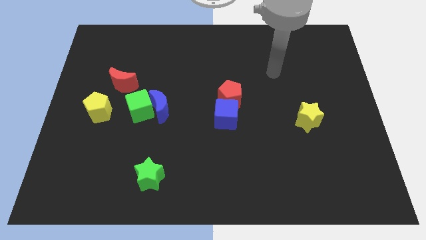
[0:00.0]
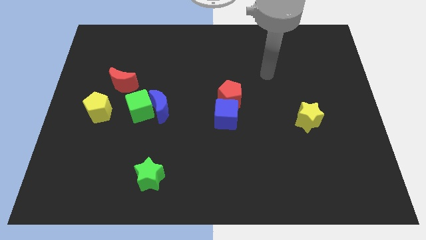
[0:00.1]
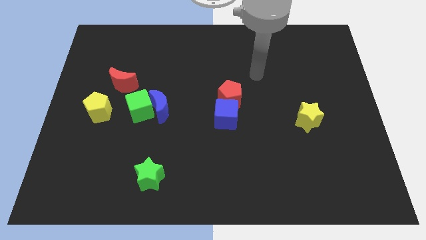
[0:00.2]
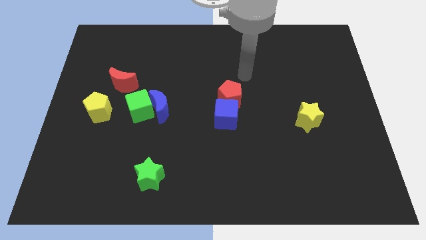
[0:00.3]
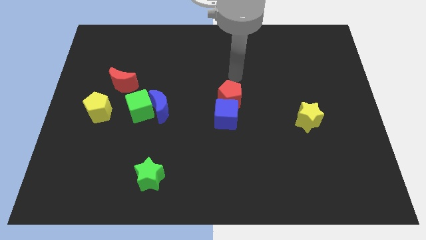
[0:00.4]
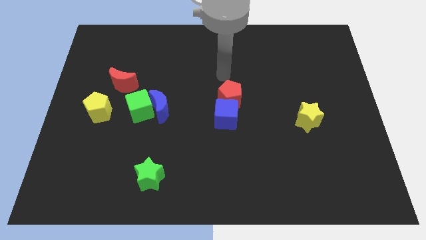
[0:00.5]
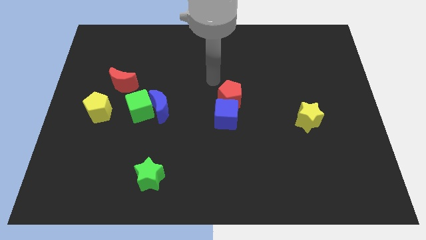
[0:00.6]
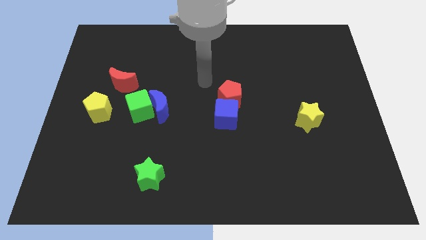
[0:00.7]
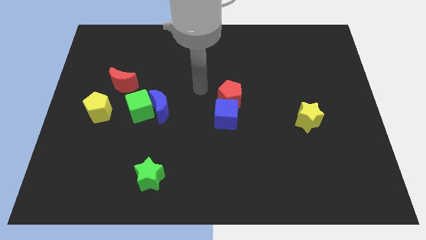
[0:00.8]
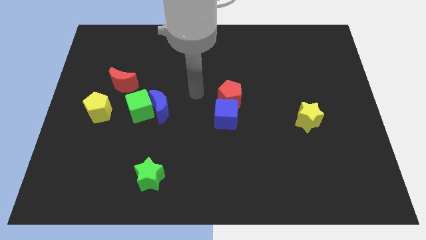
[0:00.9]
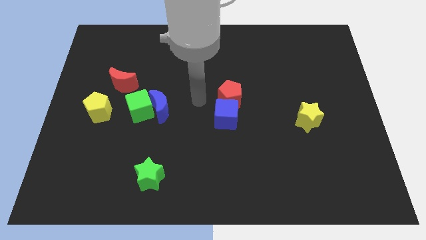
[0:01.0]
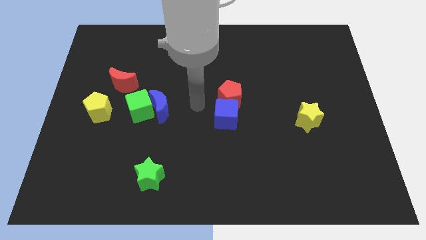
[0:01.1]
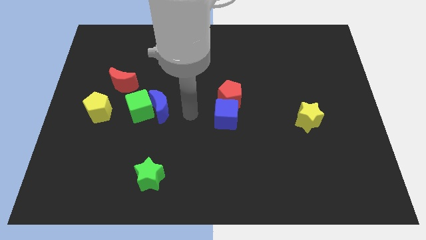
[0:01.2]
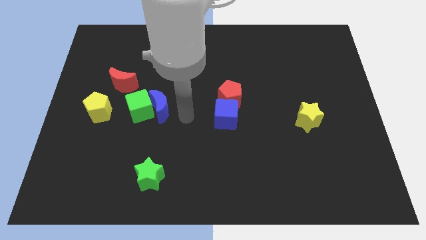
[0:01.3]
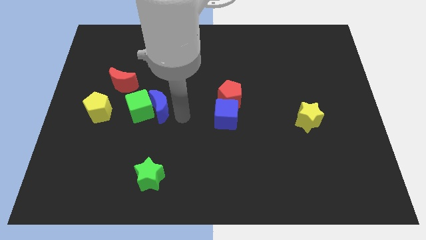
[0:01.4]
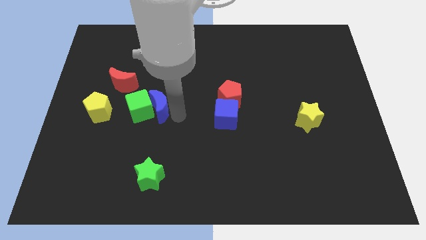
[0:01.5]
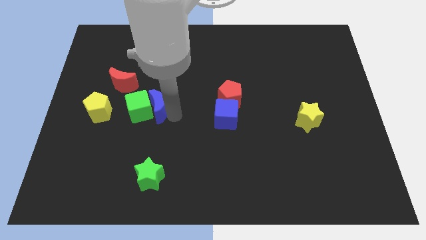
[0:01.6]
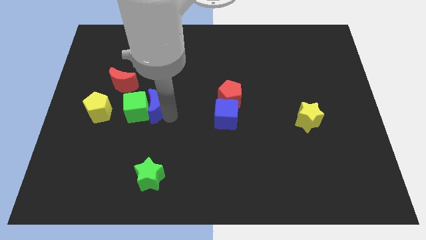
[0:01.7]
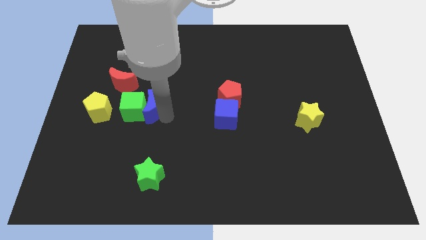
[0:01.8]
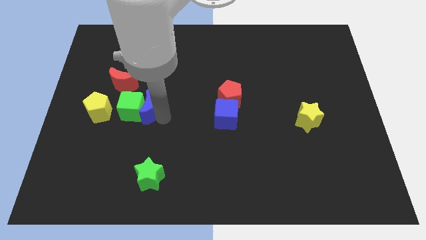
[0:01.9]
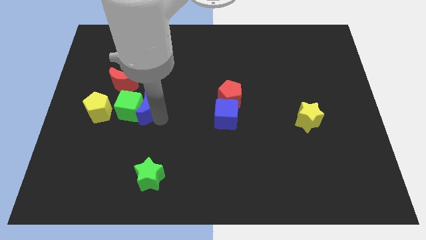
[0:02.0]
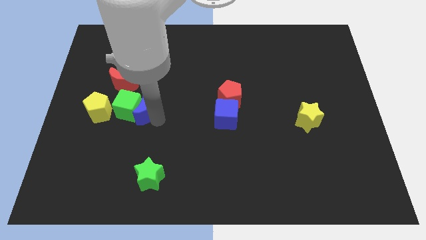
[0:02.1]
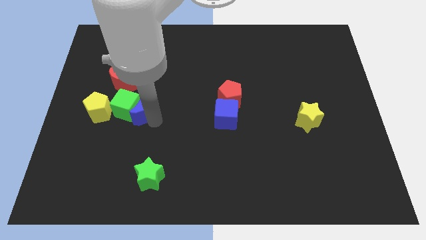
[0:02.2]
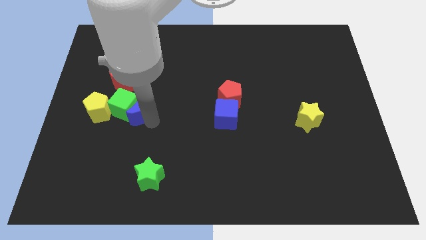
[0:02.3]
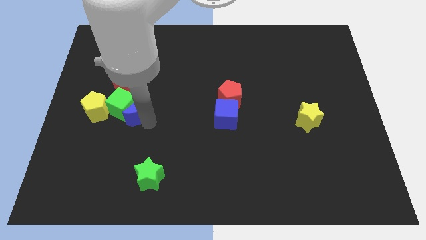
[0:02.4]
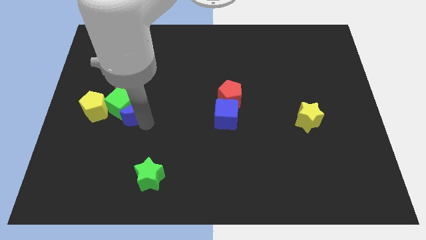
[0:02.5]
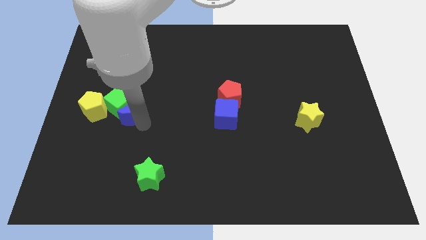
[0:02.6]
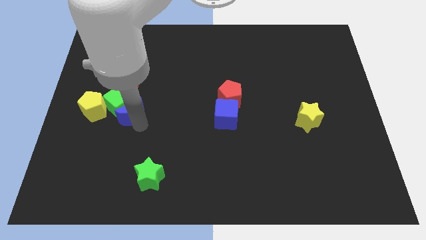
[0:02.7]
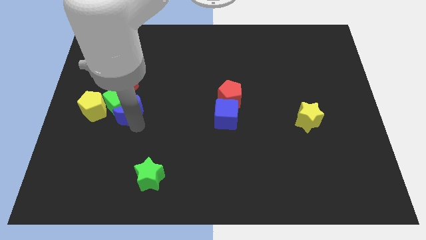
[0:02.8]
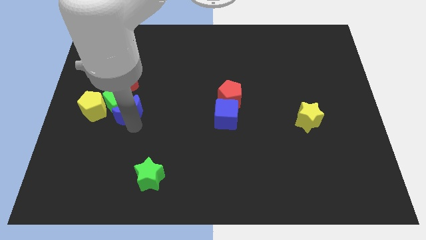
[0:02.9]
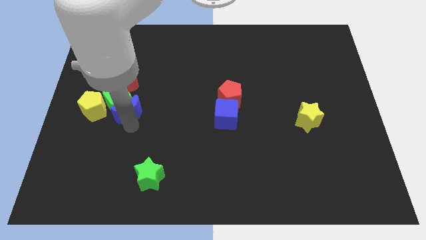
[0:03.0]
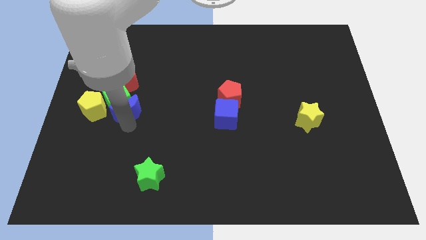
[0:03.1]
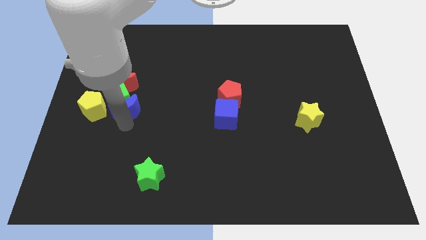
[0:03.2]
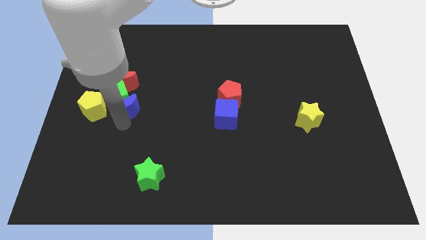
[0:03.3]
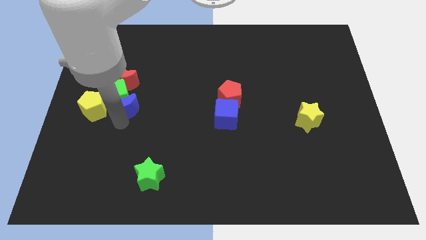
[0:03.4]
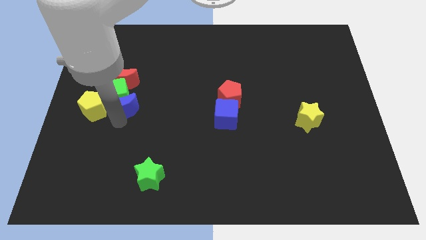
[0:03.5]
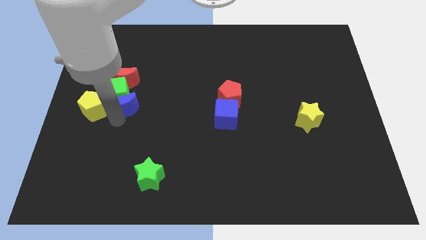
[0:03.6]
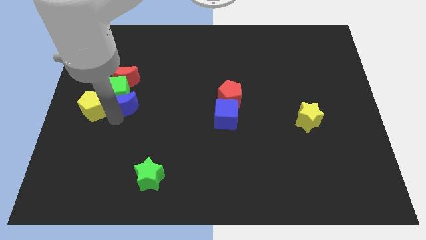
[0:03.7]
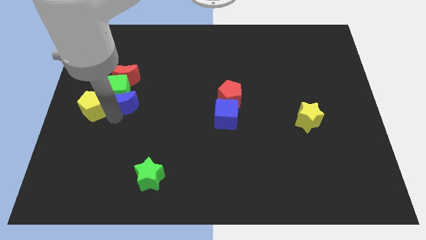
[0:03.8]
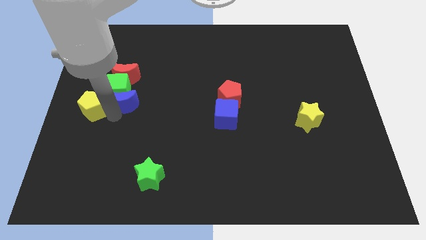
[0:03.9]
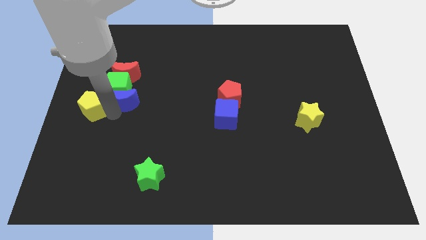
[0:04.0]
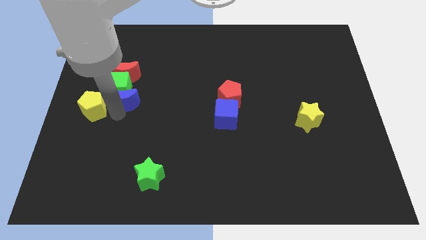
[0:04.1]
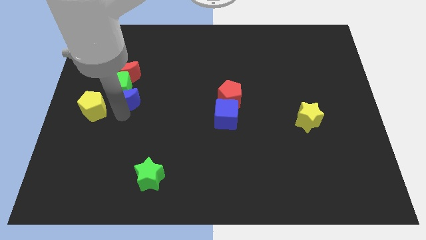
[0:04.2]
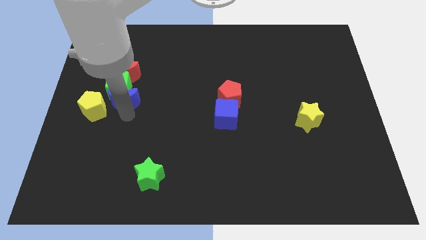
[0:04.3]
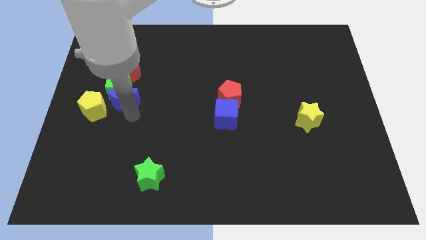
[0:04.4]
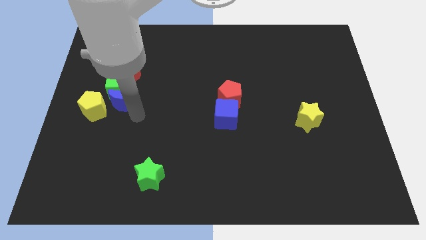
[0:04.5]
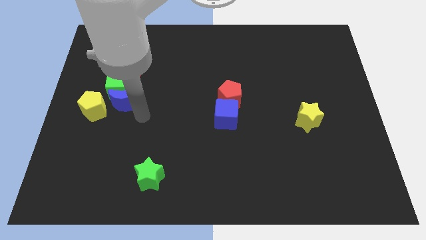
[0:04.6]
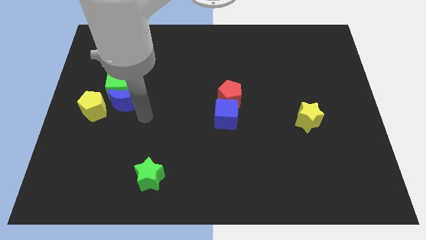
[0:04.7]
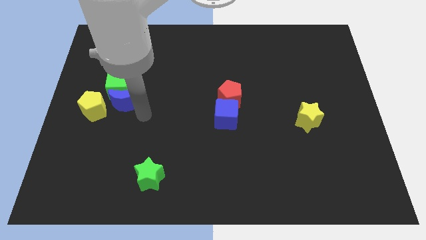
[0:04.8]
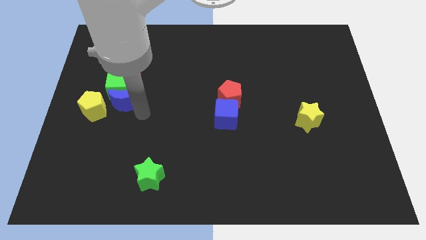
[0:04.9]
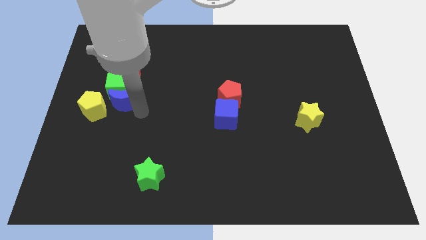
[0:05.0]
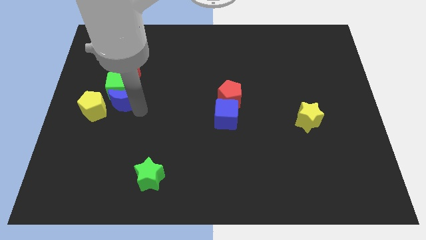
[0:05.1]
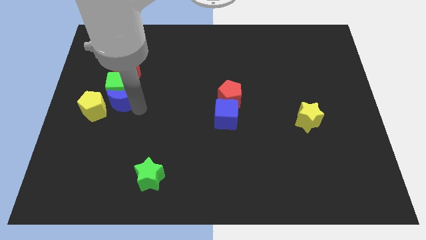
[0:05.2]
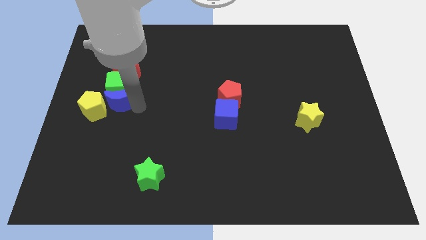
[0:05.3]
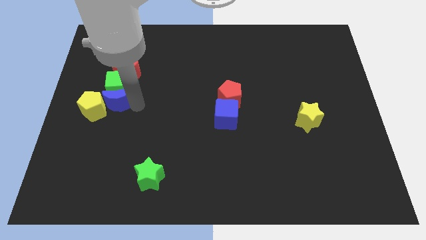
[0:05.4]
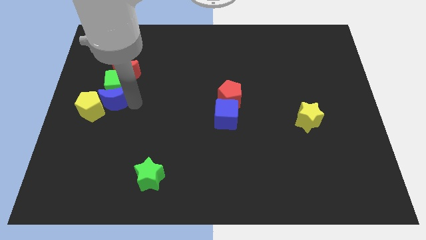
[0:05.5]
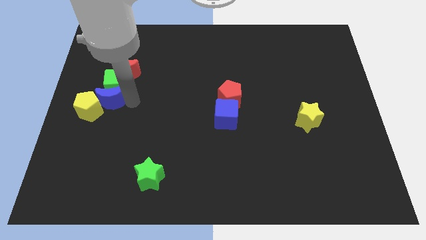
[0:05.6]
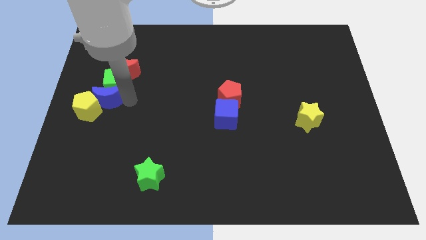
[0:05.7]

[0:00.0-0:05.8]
put the blue moon to the left side

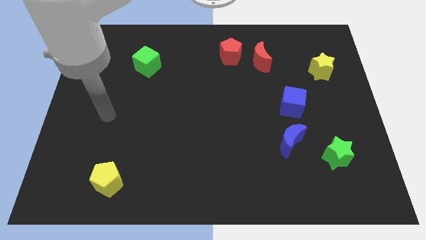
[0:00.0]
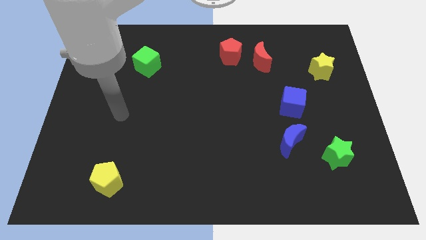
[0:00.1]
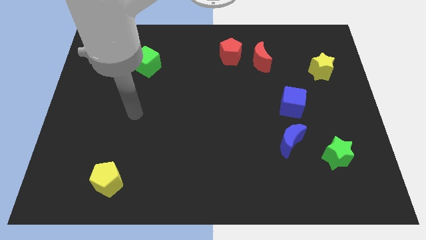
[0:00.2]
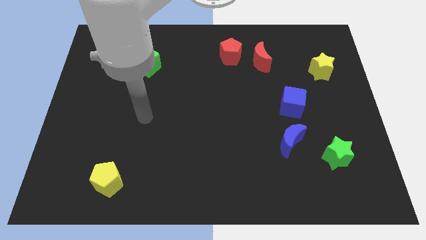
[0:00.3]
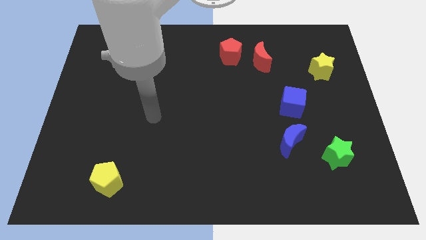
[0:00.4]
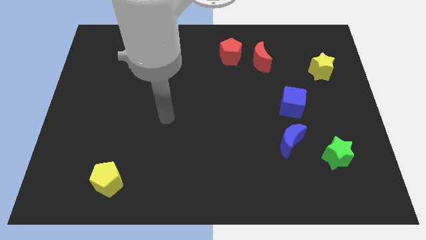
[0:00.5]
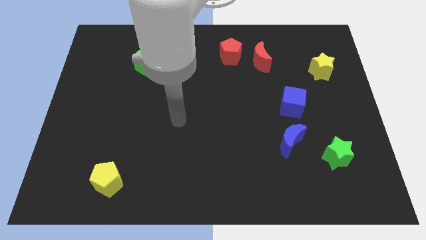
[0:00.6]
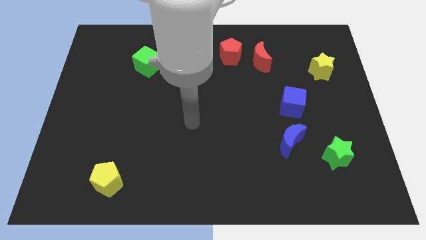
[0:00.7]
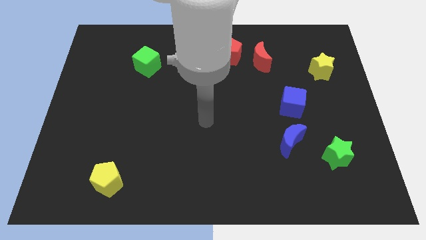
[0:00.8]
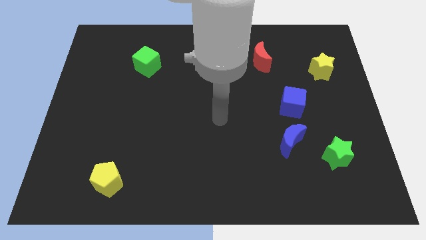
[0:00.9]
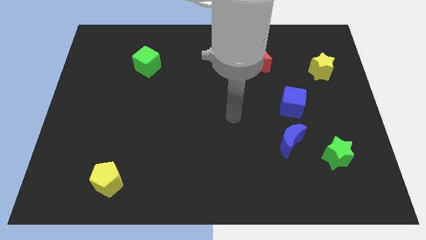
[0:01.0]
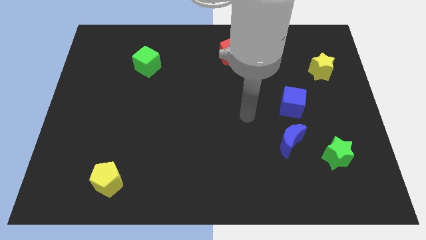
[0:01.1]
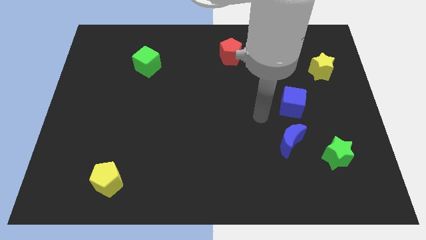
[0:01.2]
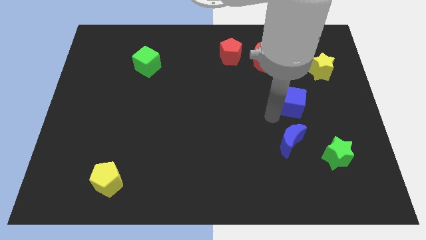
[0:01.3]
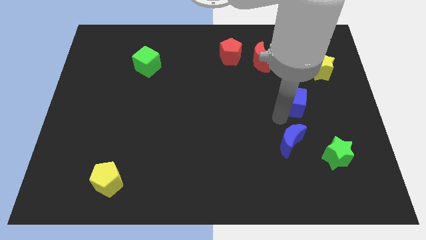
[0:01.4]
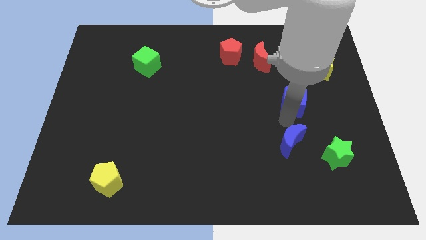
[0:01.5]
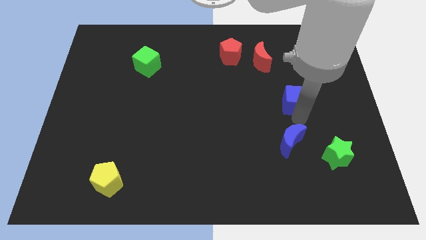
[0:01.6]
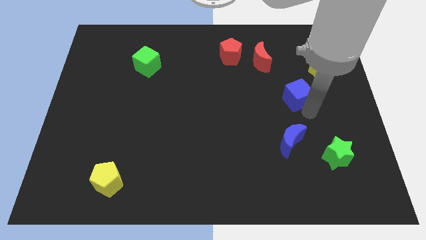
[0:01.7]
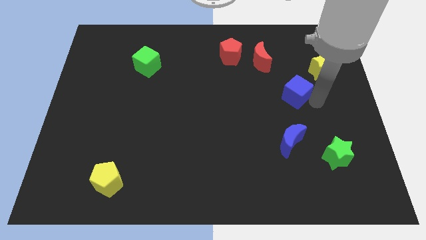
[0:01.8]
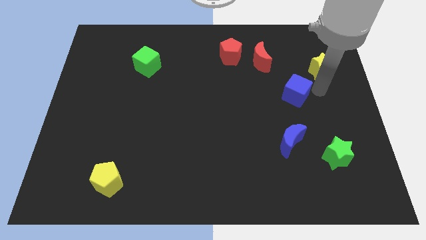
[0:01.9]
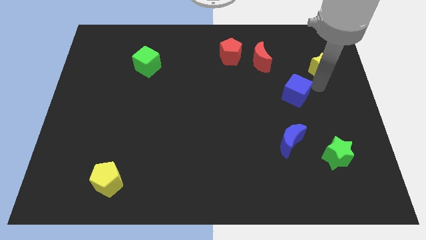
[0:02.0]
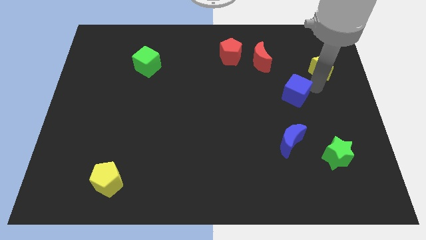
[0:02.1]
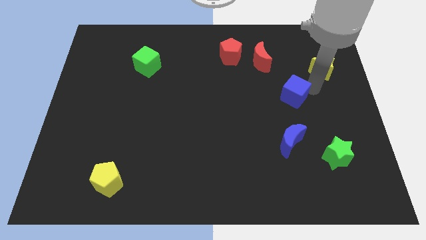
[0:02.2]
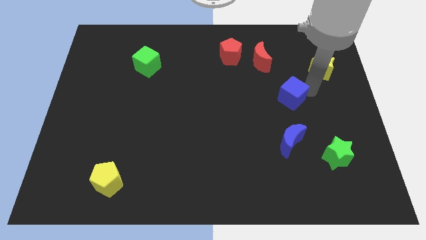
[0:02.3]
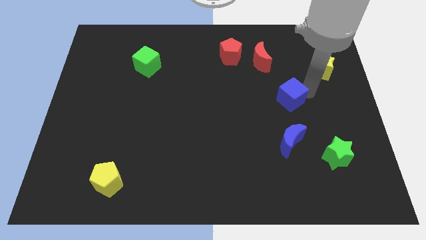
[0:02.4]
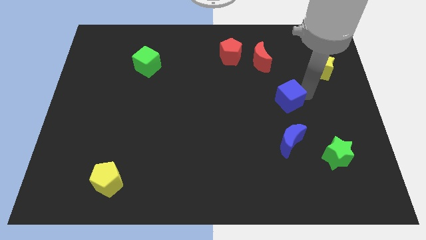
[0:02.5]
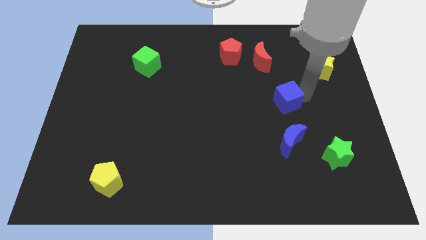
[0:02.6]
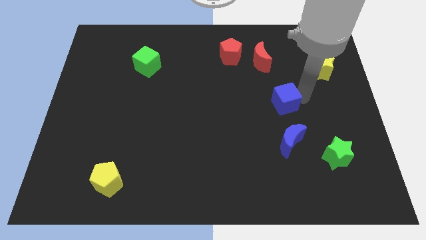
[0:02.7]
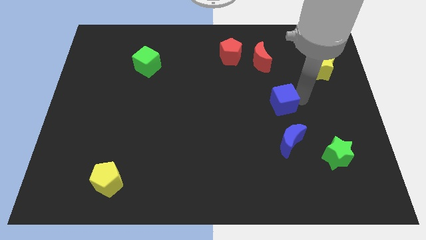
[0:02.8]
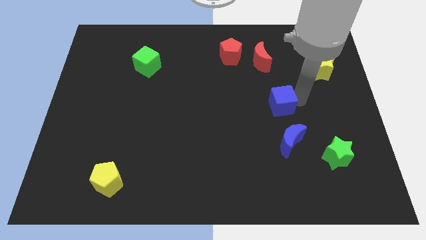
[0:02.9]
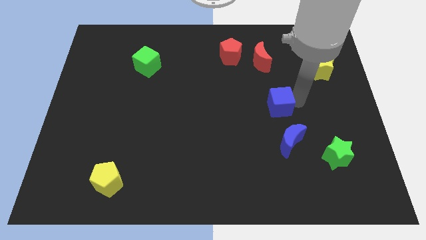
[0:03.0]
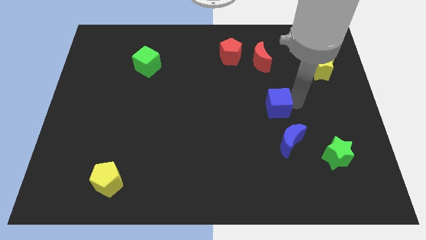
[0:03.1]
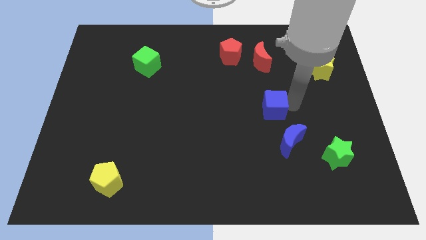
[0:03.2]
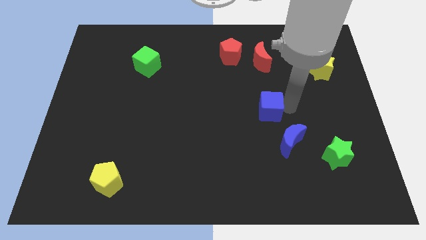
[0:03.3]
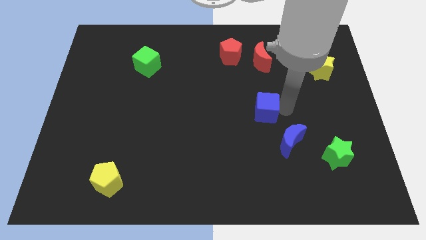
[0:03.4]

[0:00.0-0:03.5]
push the blue cube to the middle of the board
